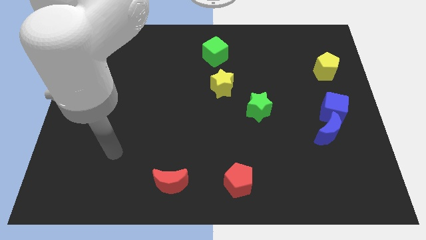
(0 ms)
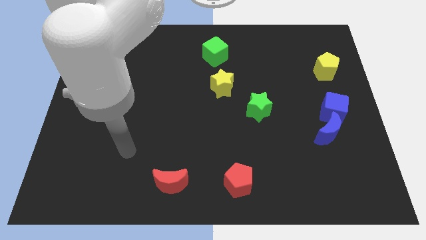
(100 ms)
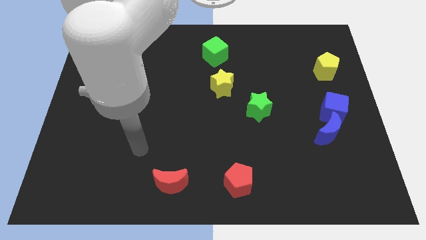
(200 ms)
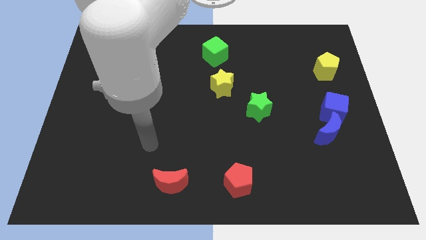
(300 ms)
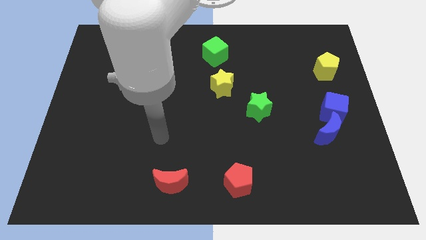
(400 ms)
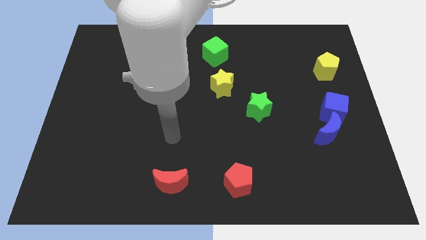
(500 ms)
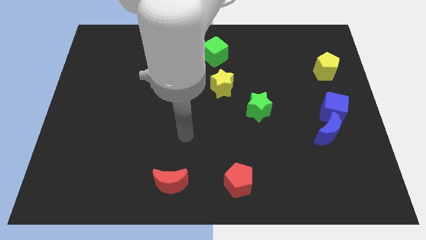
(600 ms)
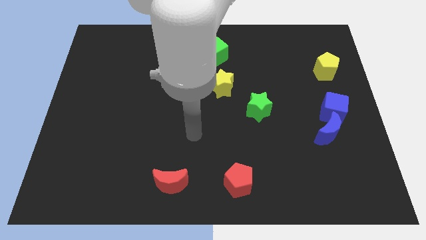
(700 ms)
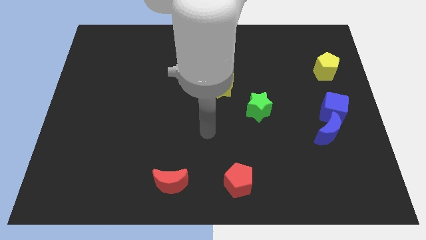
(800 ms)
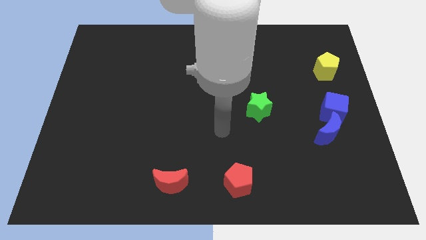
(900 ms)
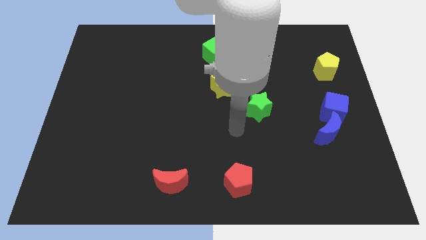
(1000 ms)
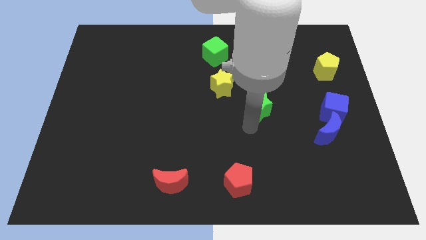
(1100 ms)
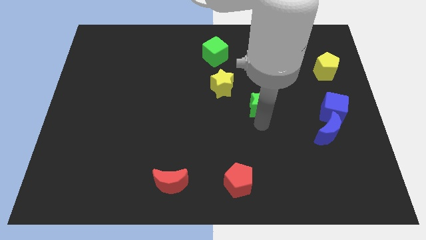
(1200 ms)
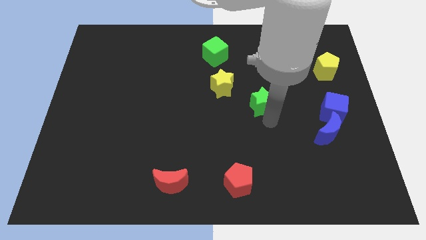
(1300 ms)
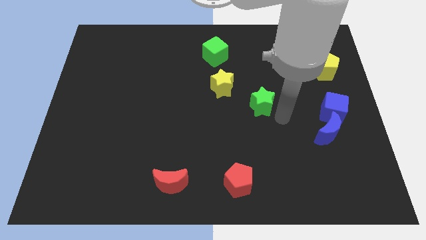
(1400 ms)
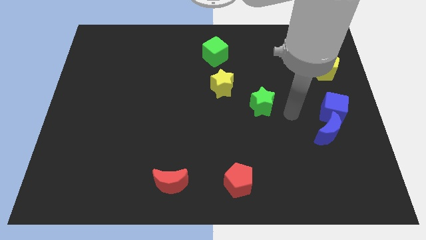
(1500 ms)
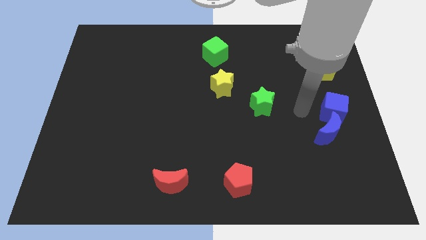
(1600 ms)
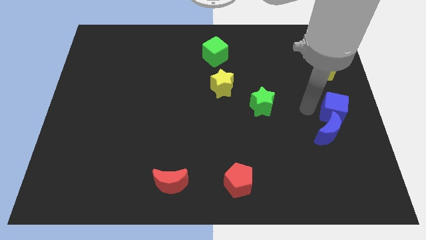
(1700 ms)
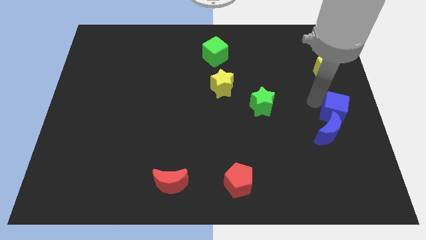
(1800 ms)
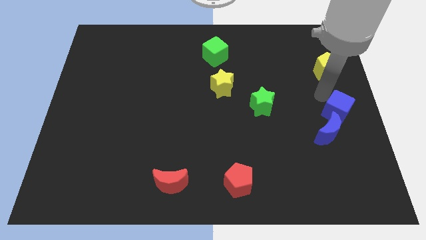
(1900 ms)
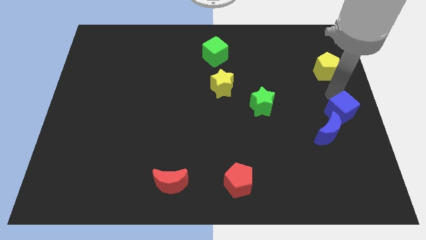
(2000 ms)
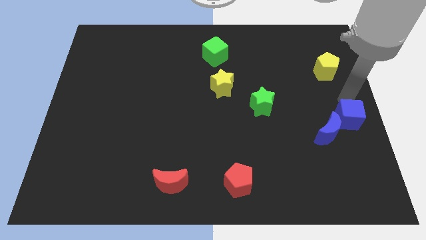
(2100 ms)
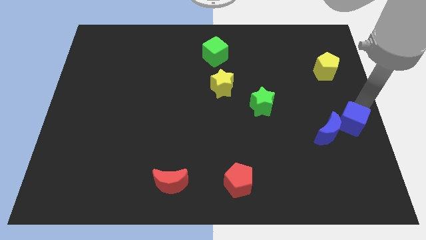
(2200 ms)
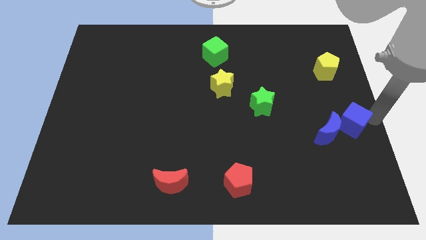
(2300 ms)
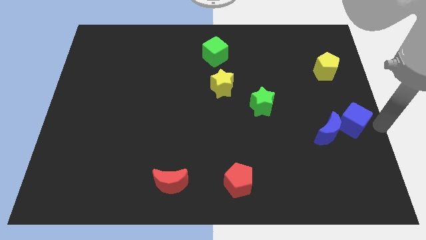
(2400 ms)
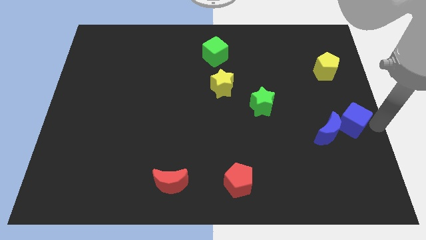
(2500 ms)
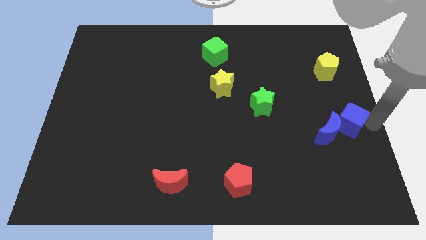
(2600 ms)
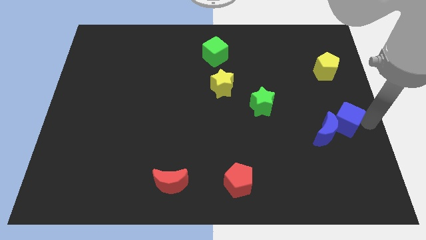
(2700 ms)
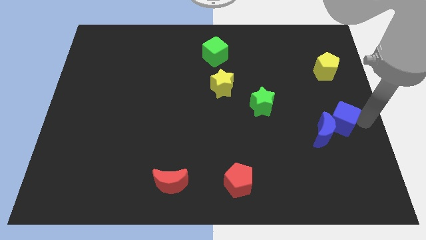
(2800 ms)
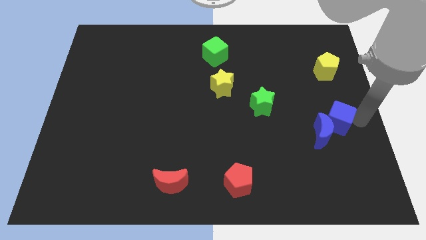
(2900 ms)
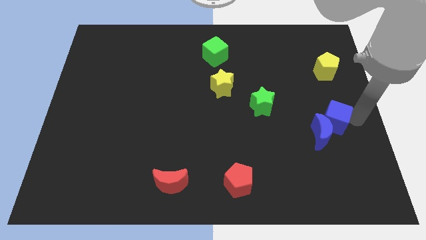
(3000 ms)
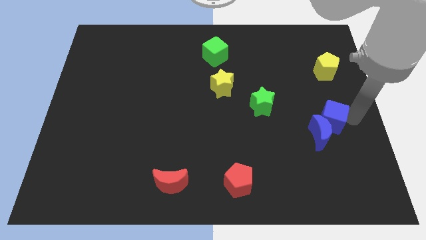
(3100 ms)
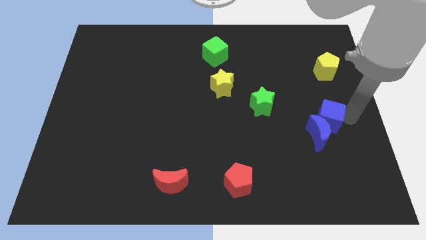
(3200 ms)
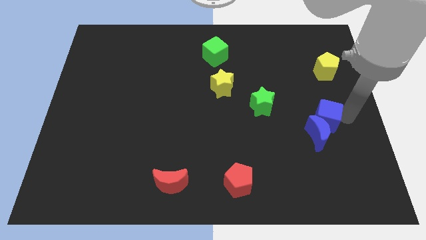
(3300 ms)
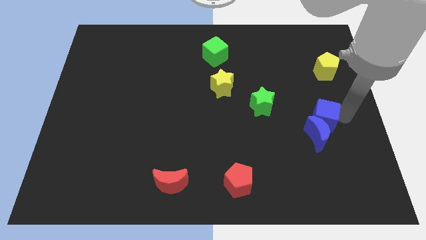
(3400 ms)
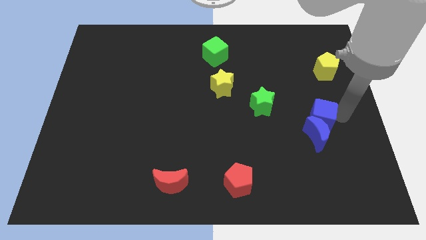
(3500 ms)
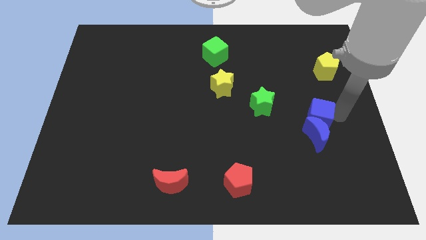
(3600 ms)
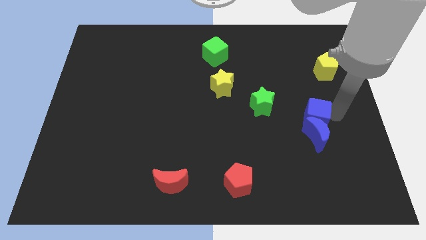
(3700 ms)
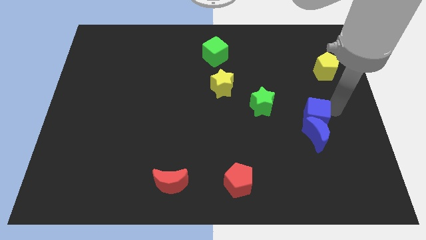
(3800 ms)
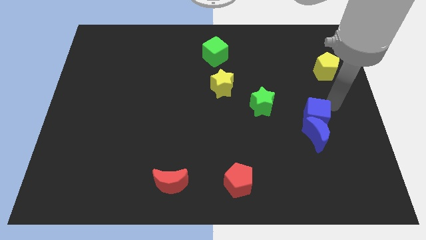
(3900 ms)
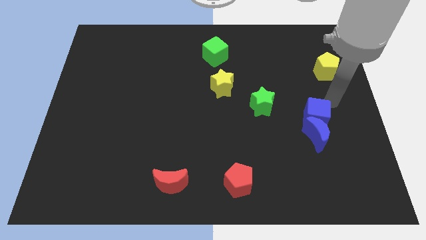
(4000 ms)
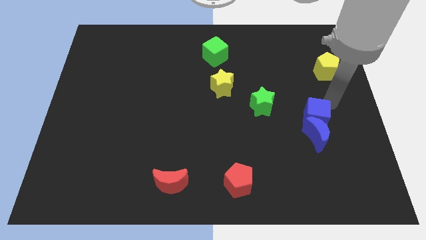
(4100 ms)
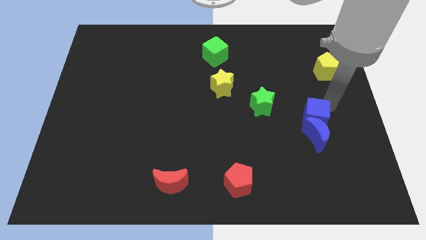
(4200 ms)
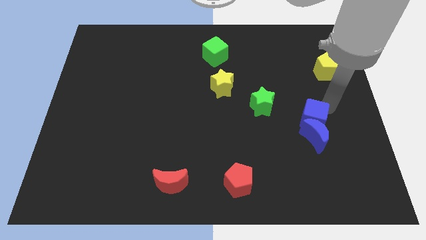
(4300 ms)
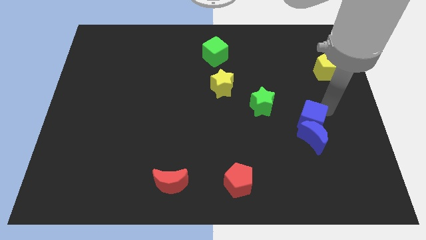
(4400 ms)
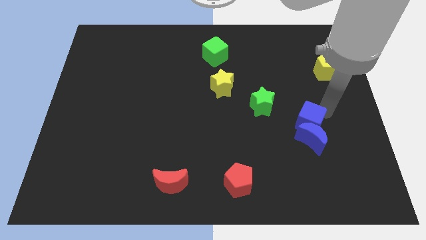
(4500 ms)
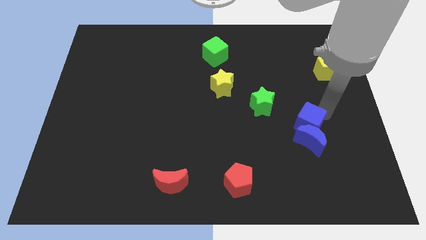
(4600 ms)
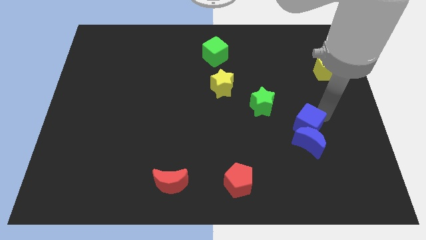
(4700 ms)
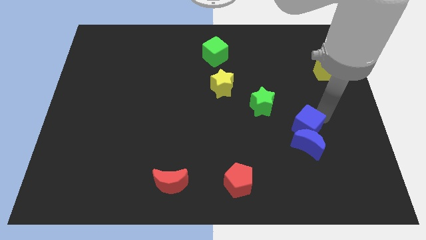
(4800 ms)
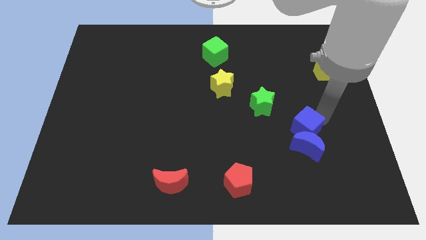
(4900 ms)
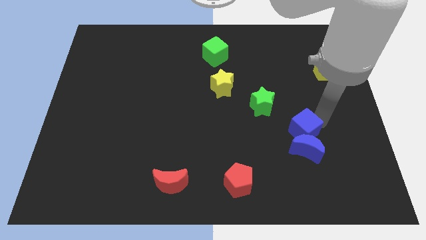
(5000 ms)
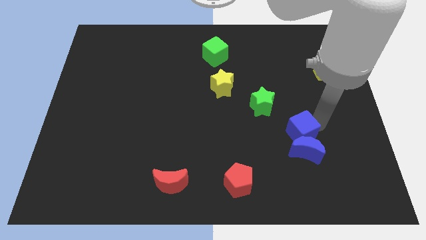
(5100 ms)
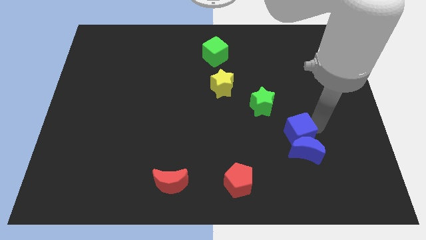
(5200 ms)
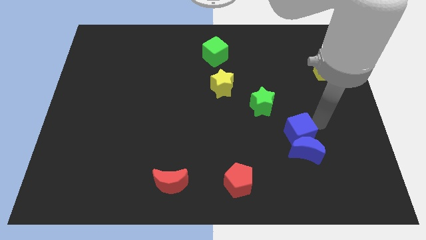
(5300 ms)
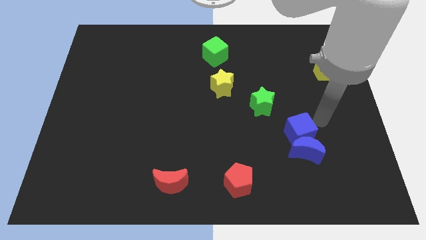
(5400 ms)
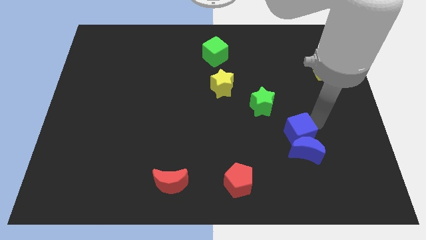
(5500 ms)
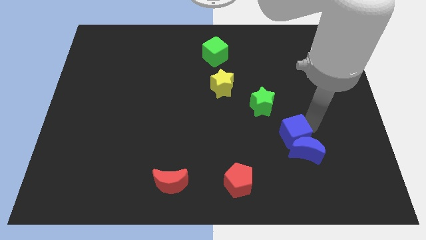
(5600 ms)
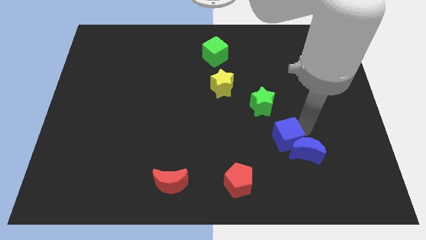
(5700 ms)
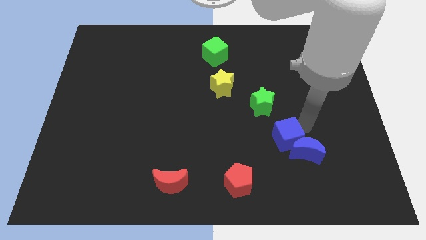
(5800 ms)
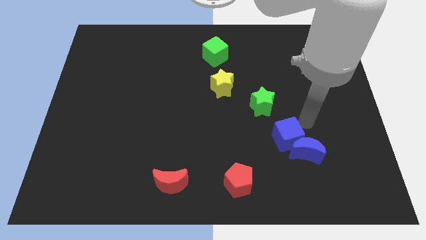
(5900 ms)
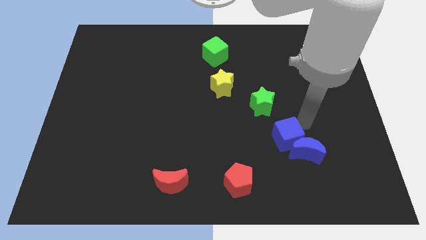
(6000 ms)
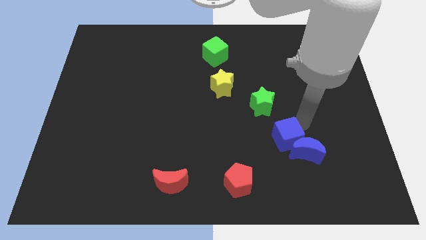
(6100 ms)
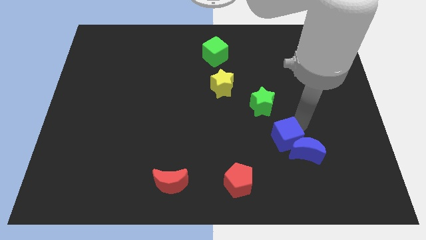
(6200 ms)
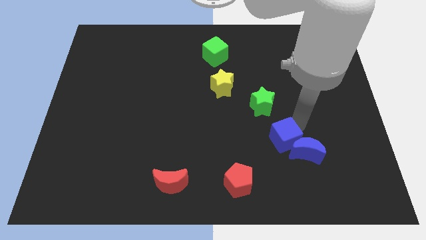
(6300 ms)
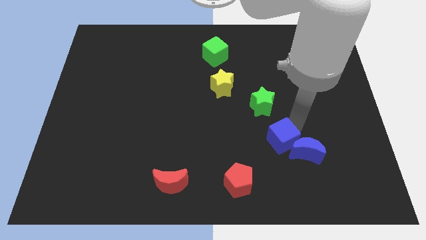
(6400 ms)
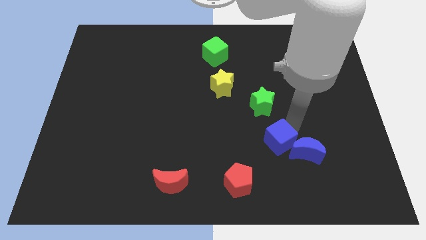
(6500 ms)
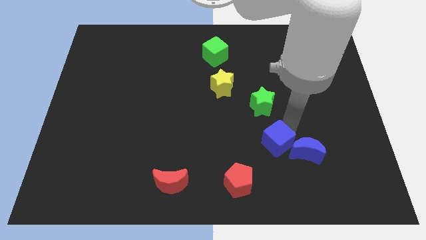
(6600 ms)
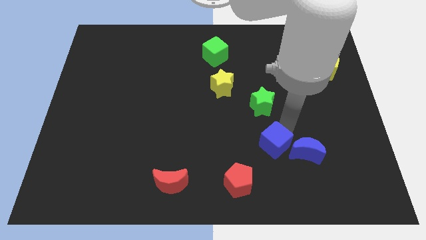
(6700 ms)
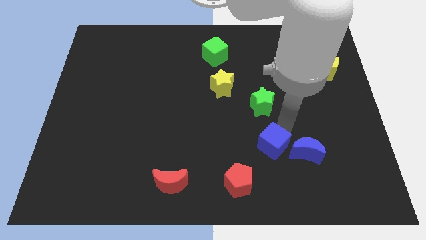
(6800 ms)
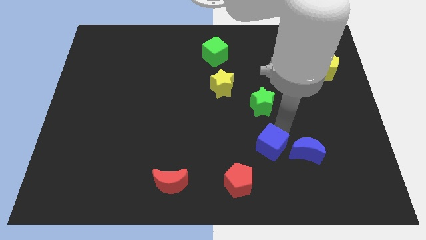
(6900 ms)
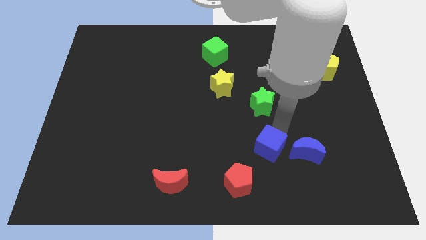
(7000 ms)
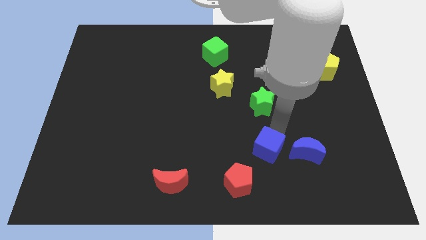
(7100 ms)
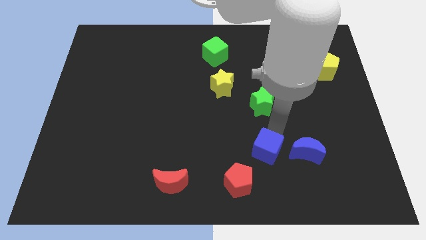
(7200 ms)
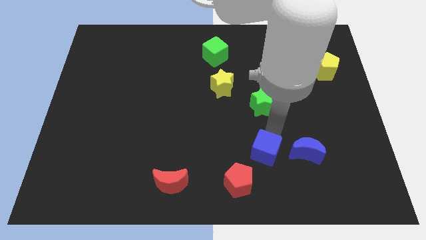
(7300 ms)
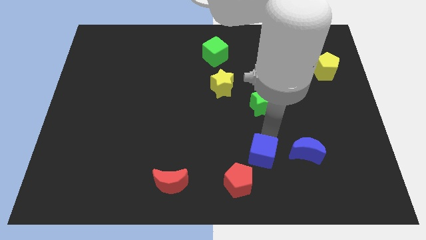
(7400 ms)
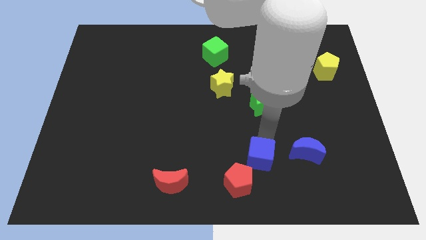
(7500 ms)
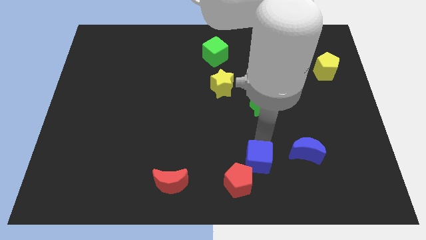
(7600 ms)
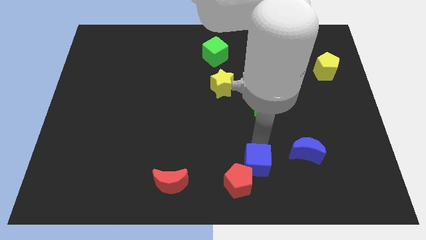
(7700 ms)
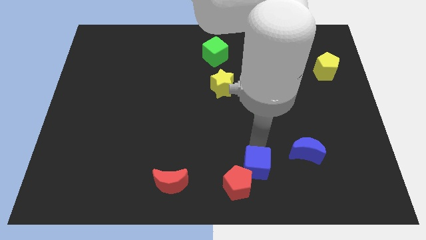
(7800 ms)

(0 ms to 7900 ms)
move the blue cube to the bottom side
